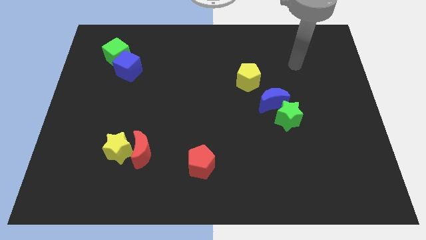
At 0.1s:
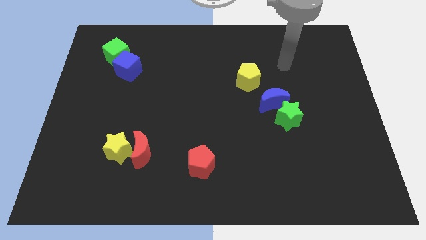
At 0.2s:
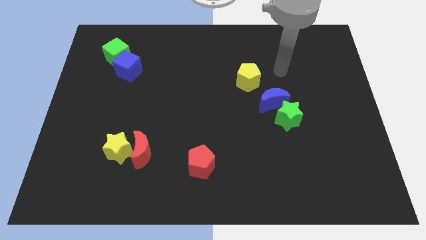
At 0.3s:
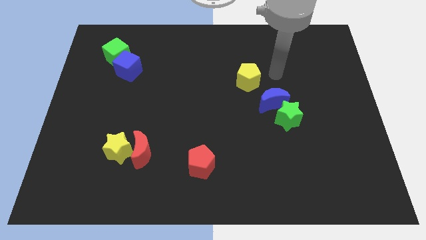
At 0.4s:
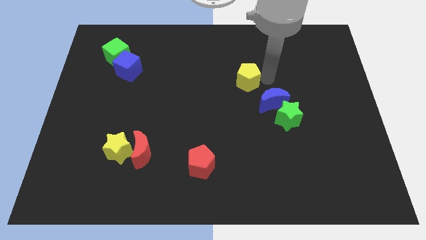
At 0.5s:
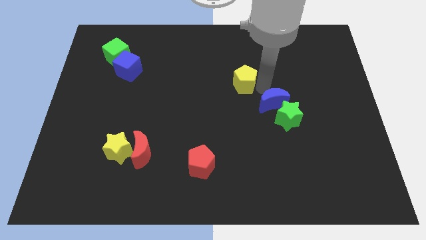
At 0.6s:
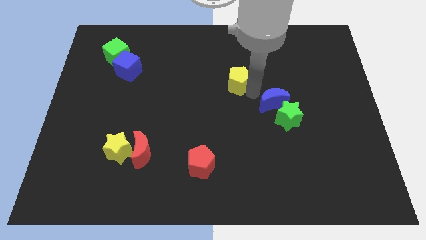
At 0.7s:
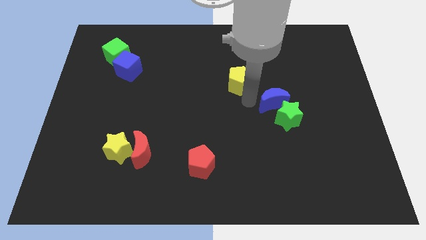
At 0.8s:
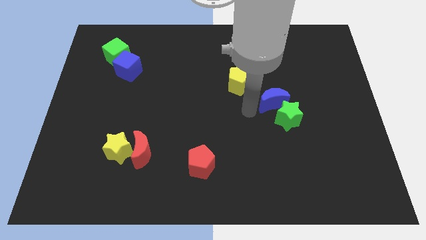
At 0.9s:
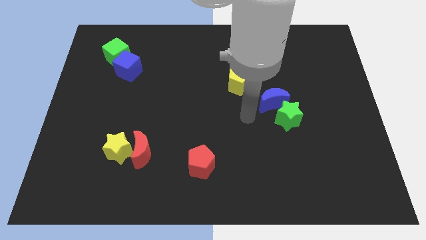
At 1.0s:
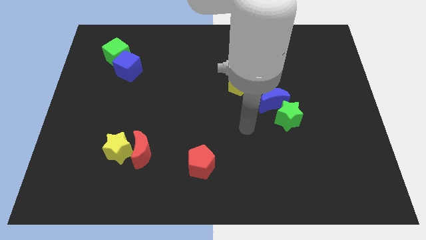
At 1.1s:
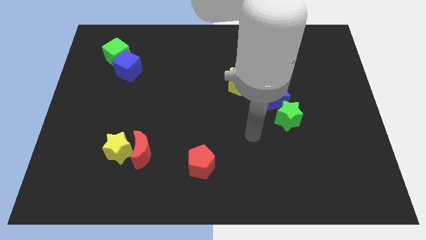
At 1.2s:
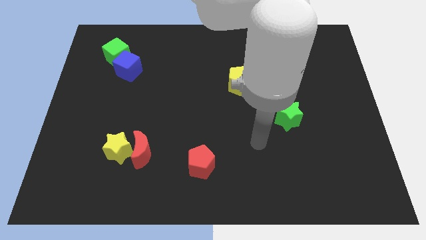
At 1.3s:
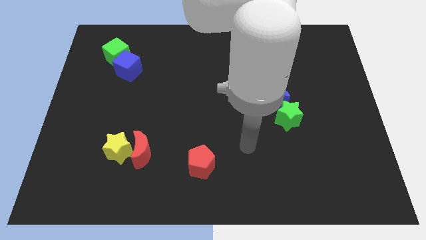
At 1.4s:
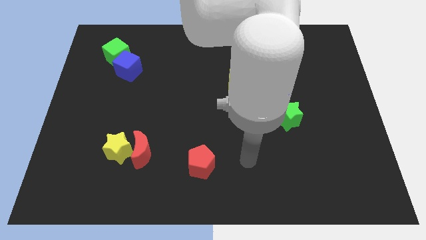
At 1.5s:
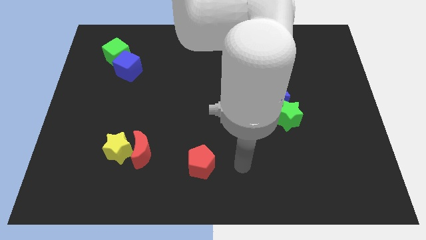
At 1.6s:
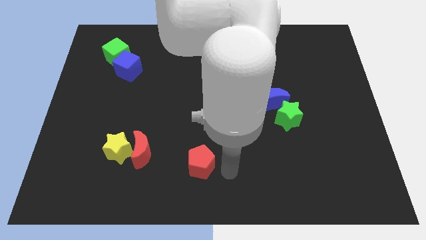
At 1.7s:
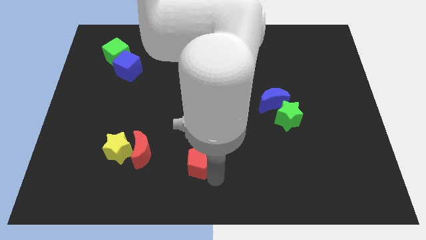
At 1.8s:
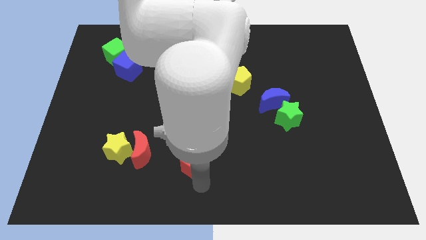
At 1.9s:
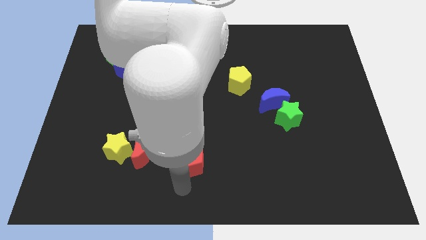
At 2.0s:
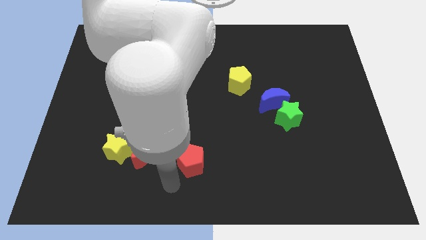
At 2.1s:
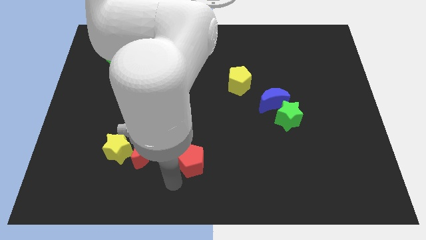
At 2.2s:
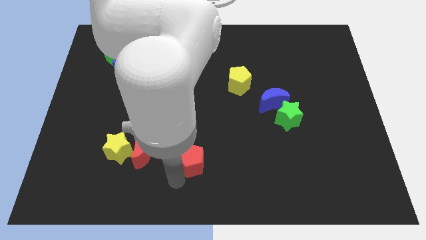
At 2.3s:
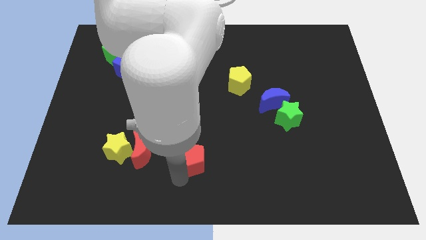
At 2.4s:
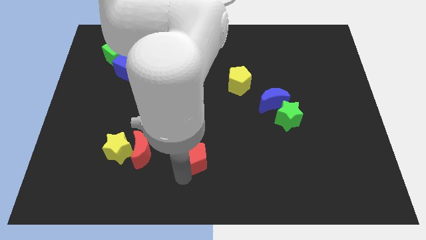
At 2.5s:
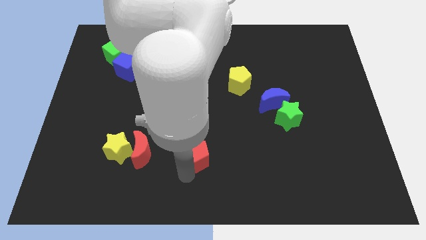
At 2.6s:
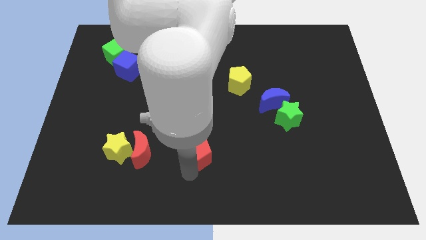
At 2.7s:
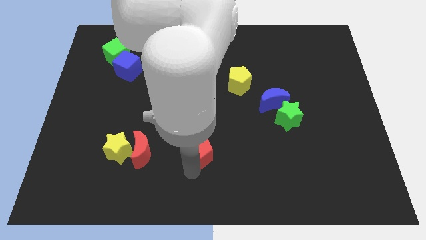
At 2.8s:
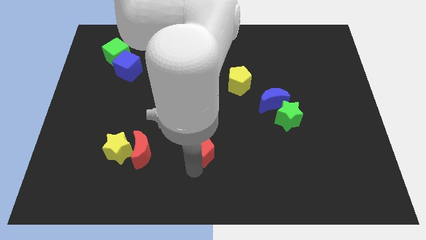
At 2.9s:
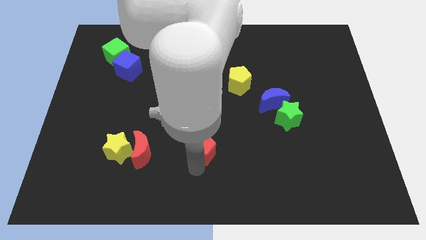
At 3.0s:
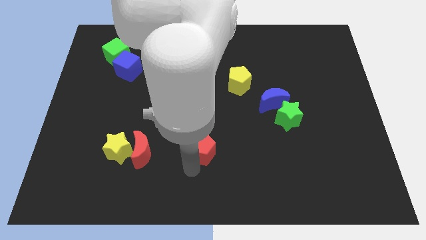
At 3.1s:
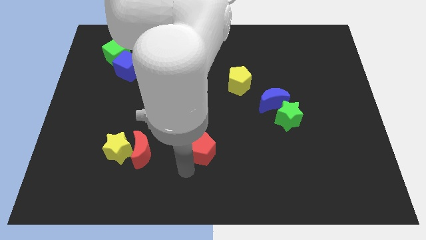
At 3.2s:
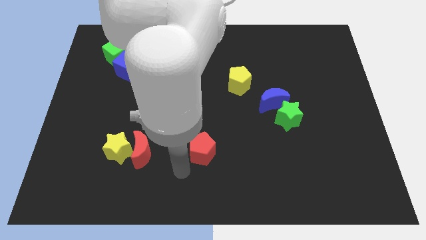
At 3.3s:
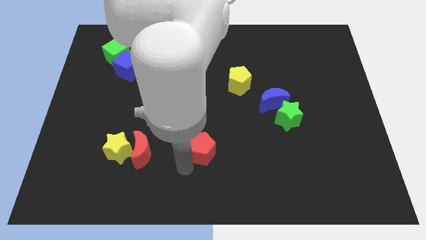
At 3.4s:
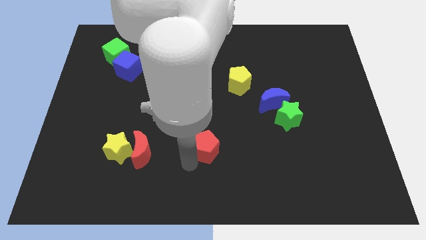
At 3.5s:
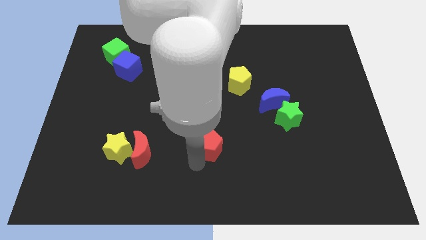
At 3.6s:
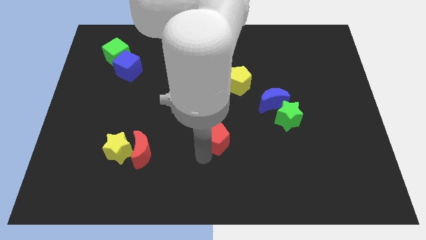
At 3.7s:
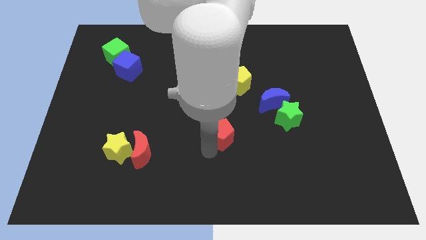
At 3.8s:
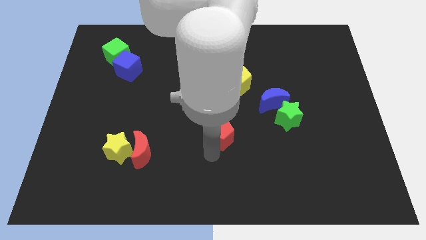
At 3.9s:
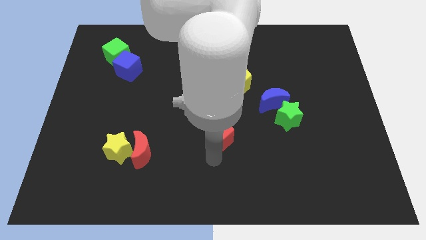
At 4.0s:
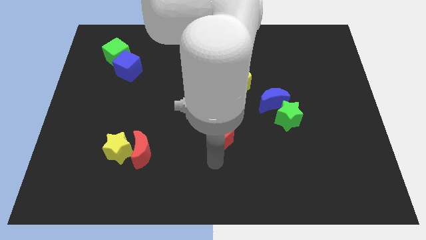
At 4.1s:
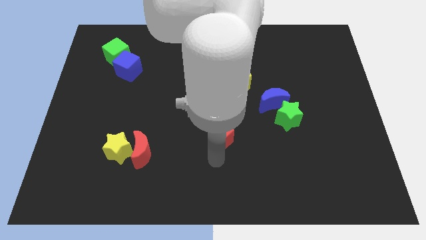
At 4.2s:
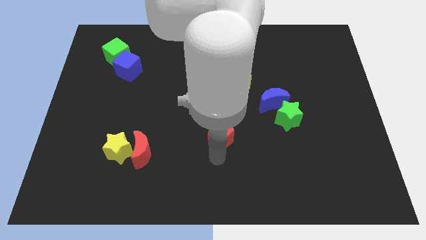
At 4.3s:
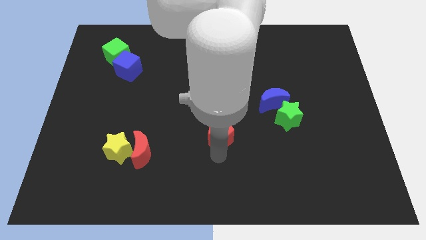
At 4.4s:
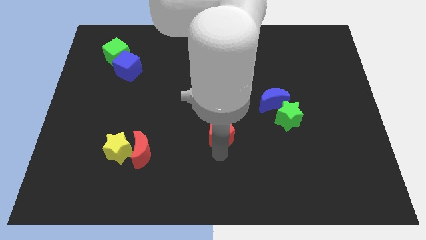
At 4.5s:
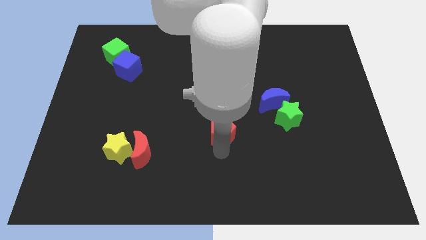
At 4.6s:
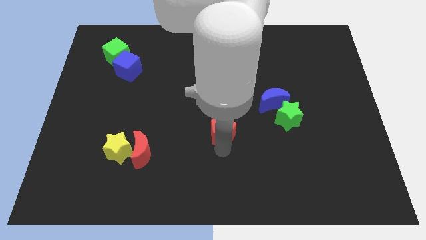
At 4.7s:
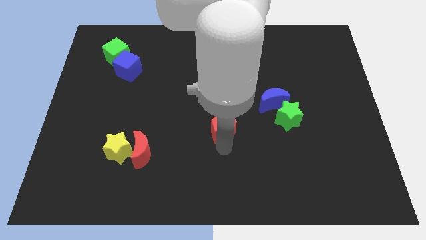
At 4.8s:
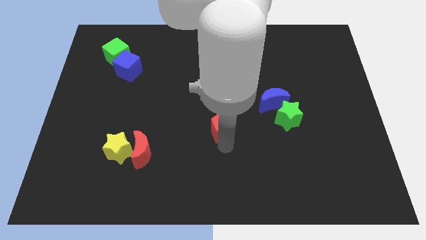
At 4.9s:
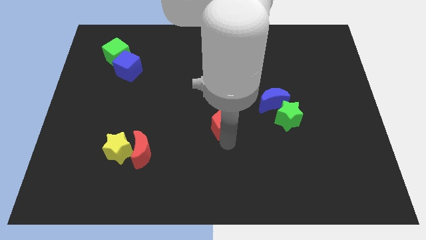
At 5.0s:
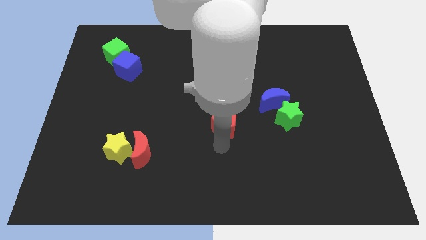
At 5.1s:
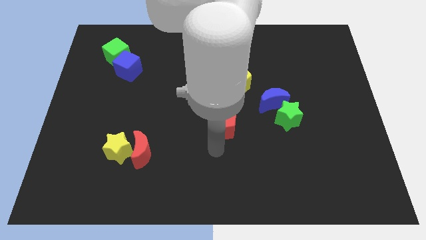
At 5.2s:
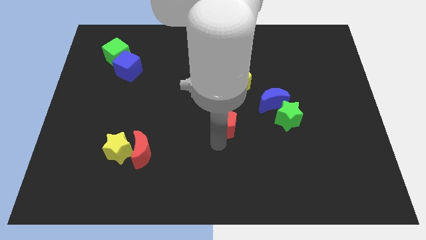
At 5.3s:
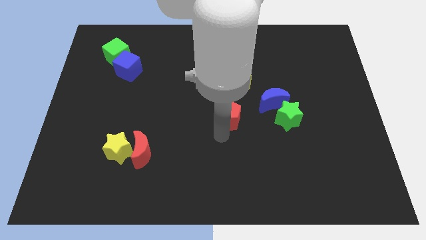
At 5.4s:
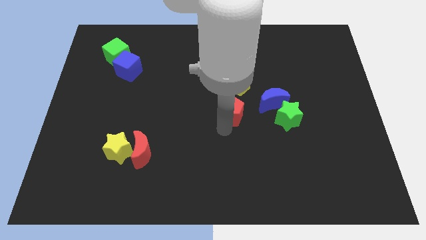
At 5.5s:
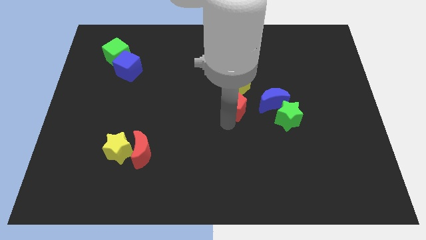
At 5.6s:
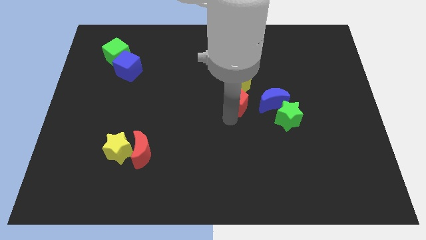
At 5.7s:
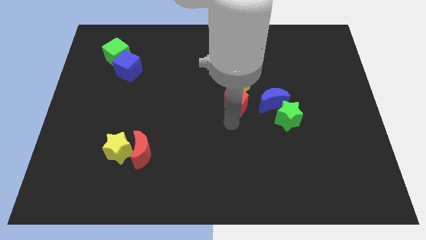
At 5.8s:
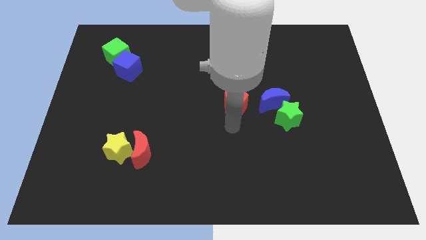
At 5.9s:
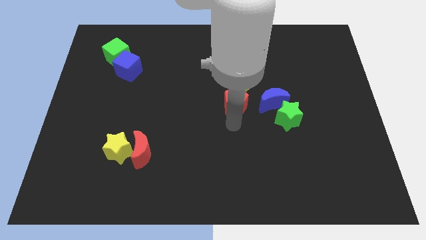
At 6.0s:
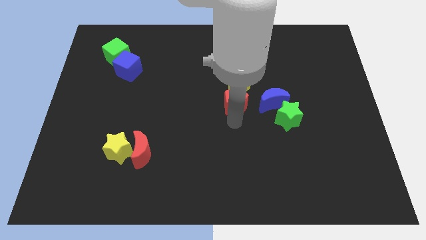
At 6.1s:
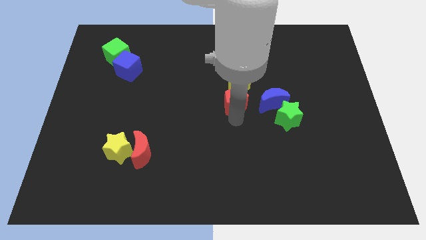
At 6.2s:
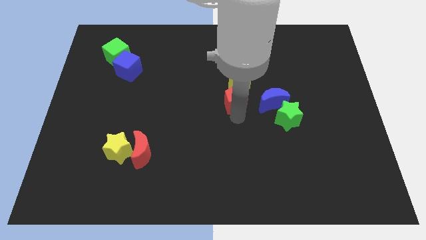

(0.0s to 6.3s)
slide the red pentagon to the yellow pentagon

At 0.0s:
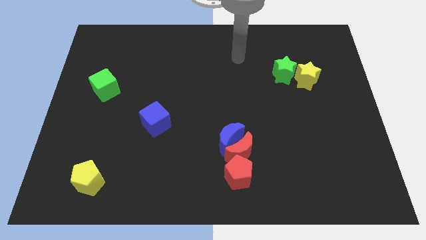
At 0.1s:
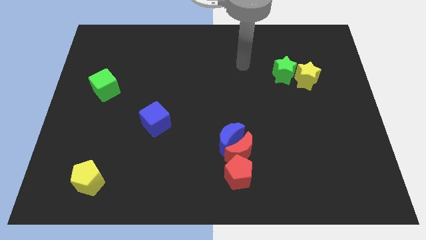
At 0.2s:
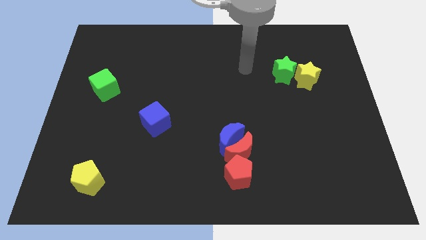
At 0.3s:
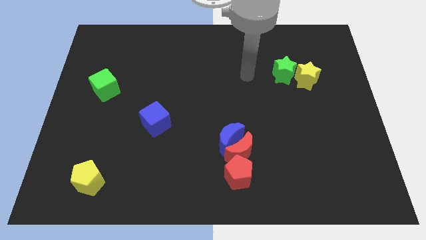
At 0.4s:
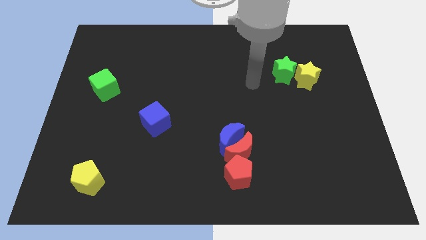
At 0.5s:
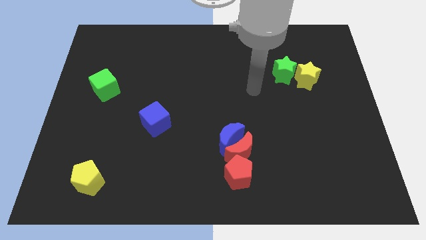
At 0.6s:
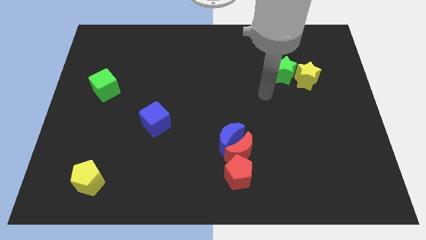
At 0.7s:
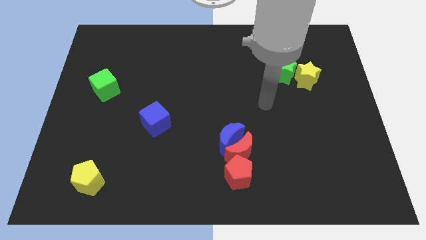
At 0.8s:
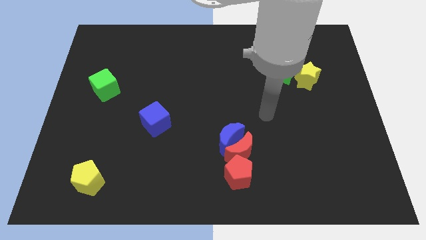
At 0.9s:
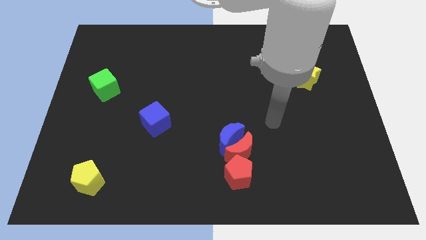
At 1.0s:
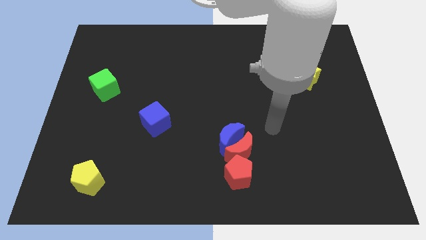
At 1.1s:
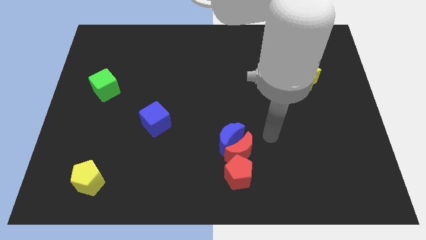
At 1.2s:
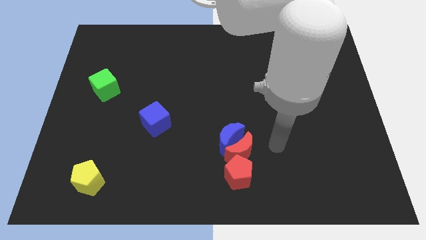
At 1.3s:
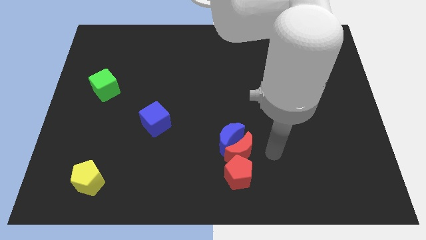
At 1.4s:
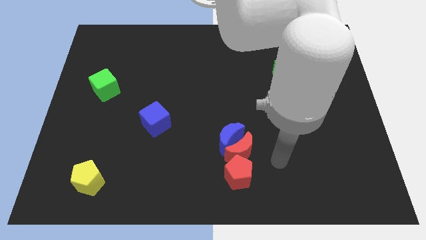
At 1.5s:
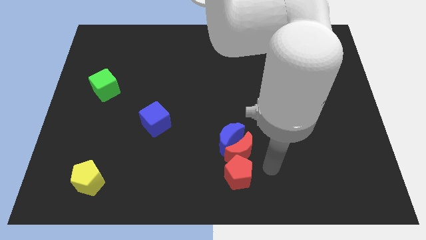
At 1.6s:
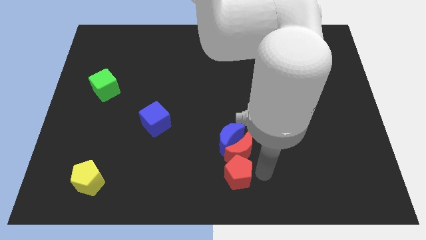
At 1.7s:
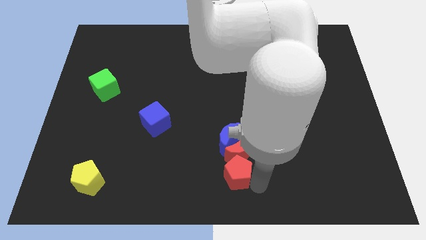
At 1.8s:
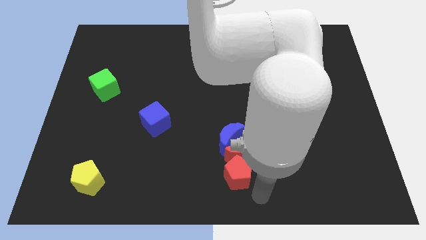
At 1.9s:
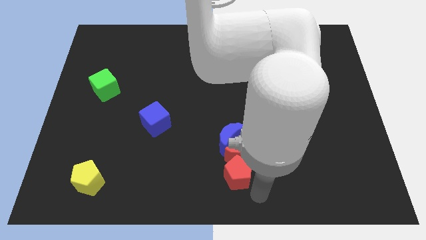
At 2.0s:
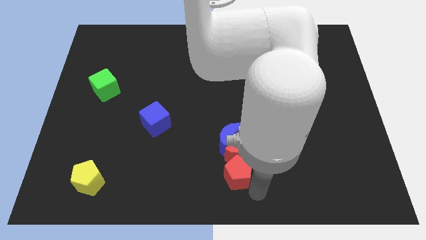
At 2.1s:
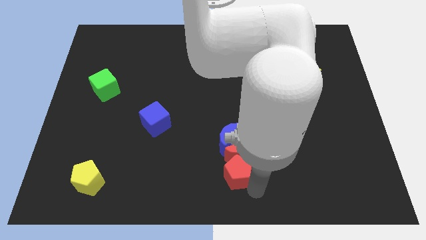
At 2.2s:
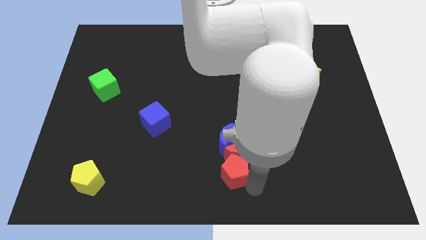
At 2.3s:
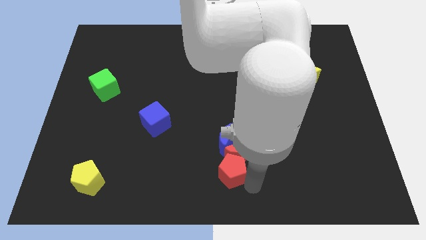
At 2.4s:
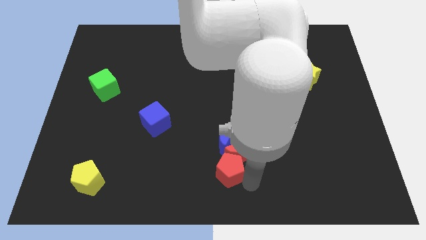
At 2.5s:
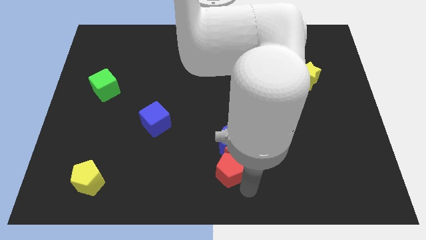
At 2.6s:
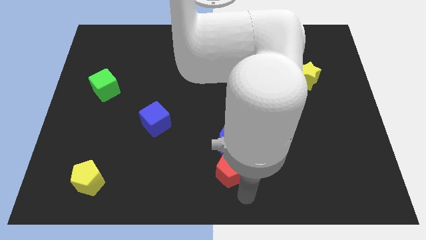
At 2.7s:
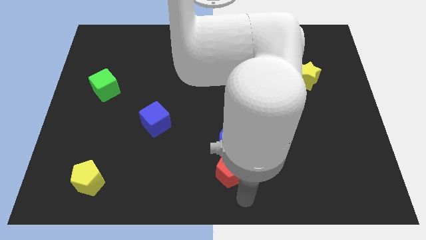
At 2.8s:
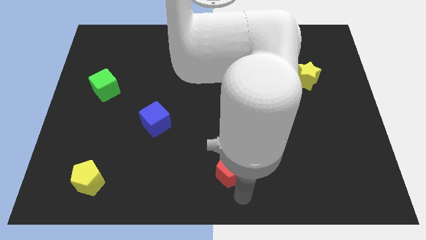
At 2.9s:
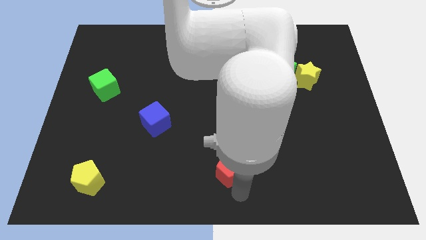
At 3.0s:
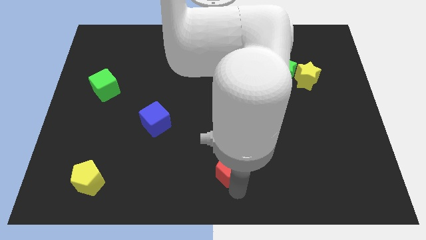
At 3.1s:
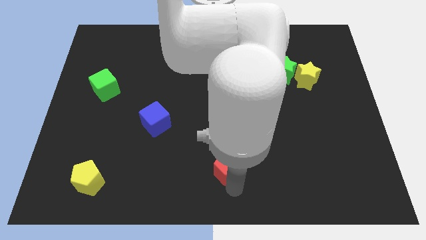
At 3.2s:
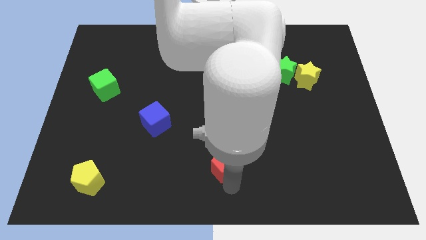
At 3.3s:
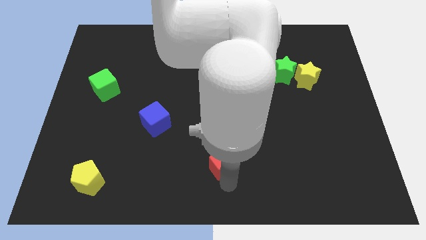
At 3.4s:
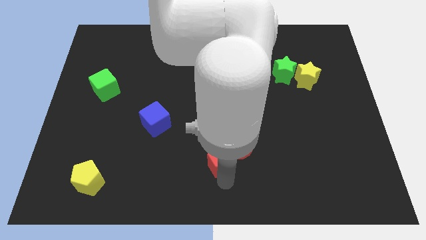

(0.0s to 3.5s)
move the red pentagon towards the blue moon
